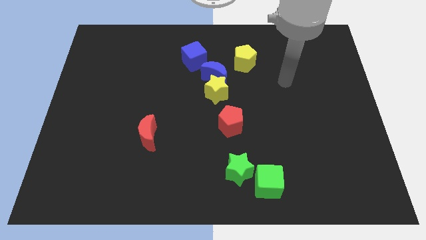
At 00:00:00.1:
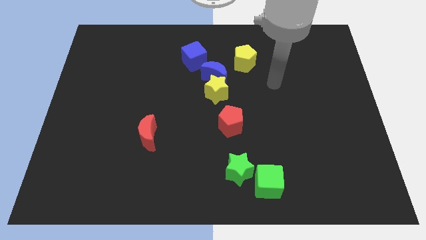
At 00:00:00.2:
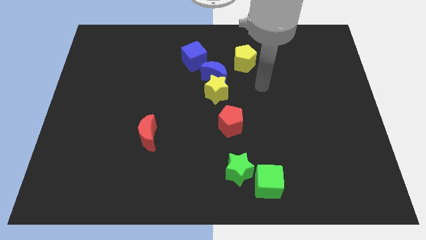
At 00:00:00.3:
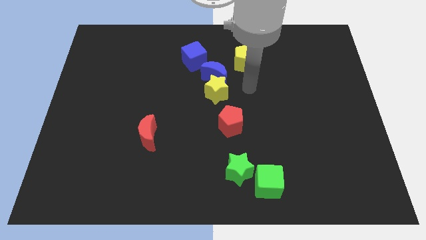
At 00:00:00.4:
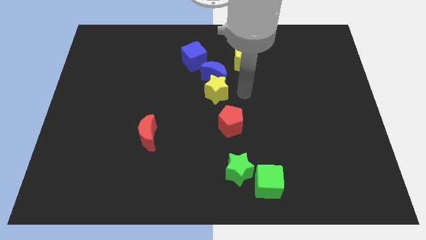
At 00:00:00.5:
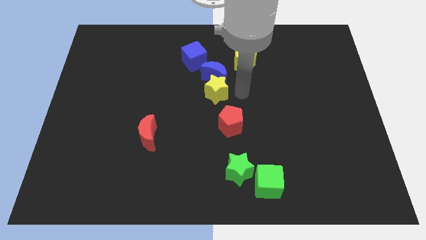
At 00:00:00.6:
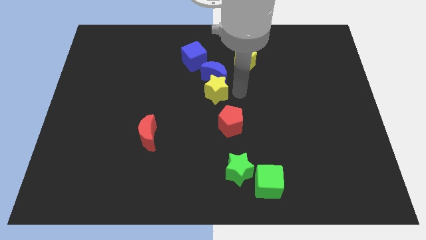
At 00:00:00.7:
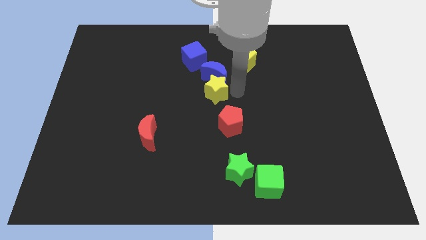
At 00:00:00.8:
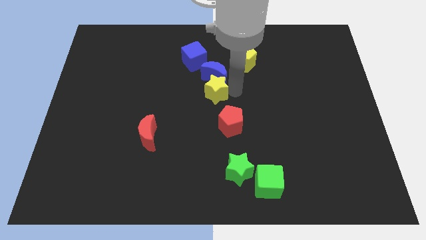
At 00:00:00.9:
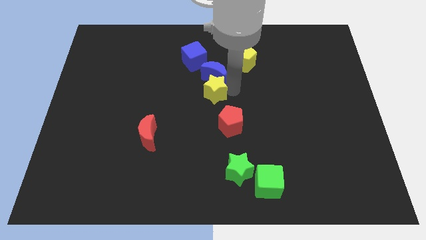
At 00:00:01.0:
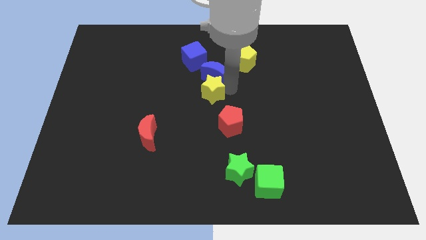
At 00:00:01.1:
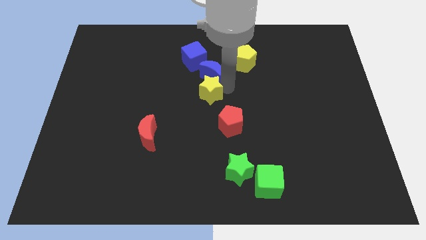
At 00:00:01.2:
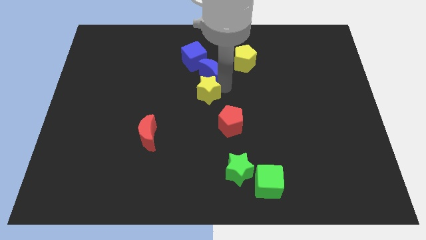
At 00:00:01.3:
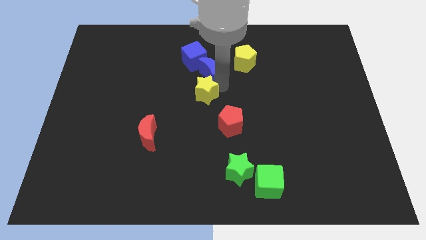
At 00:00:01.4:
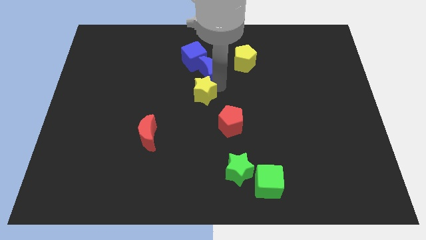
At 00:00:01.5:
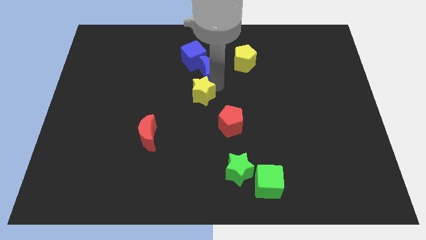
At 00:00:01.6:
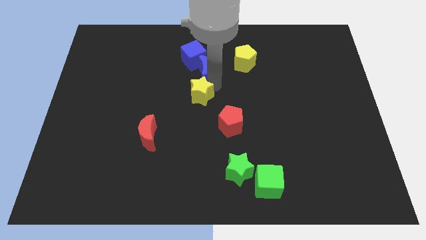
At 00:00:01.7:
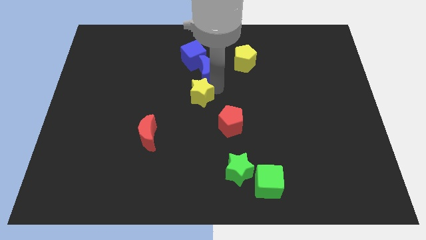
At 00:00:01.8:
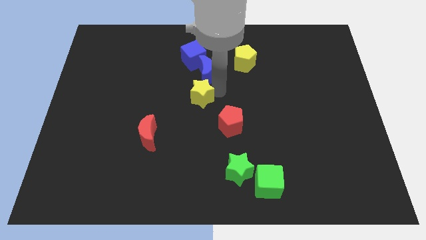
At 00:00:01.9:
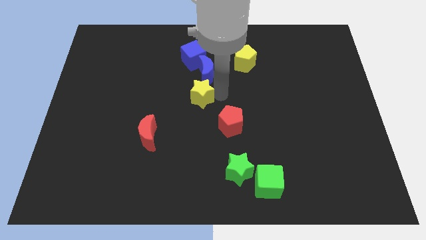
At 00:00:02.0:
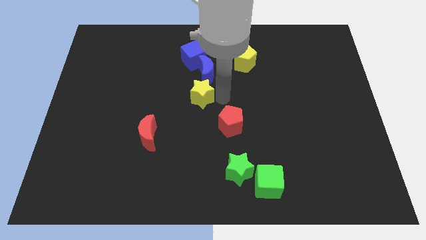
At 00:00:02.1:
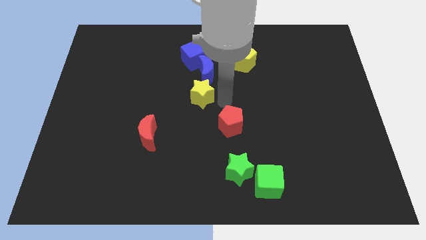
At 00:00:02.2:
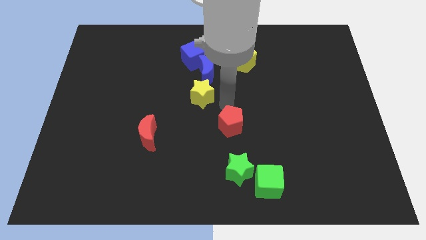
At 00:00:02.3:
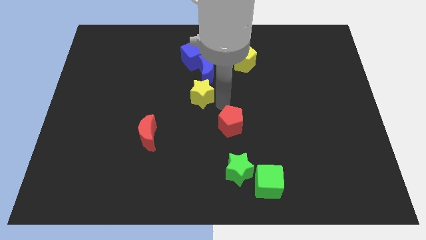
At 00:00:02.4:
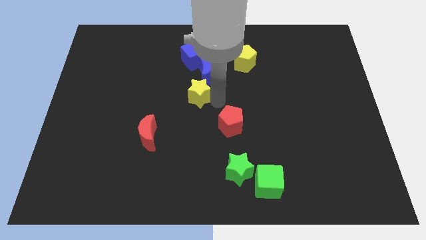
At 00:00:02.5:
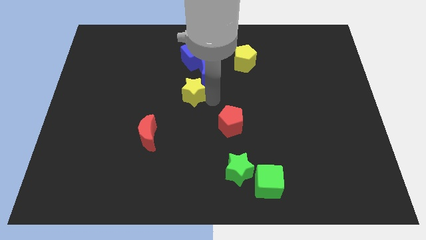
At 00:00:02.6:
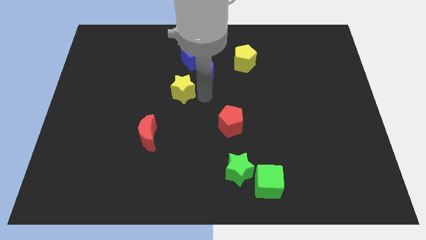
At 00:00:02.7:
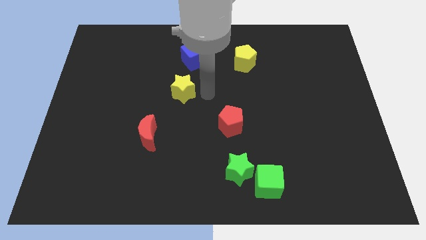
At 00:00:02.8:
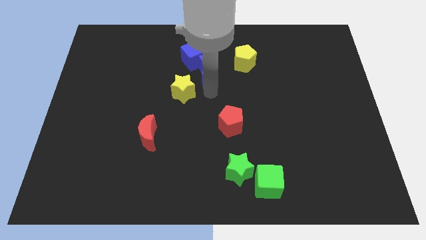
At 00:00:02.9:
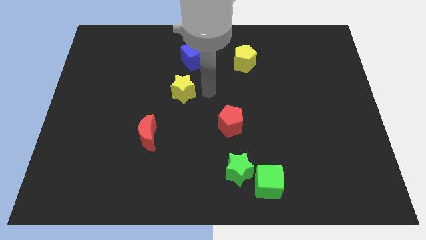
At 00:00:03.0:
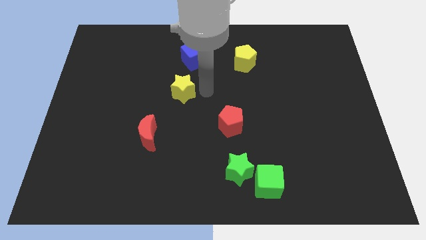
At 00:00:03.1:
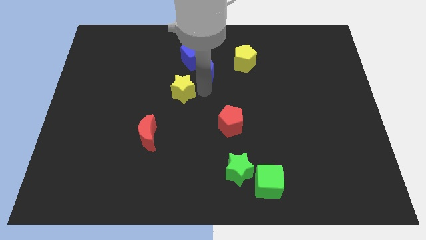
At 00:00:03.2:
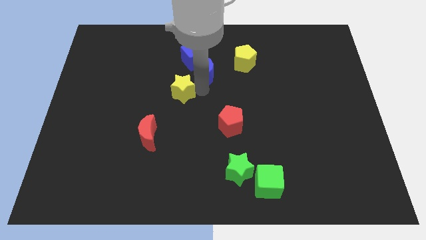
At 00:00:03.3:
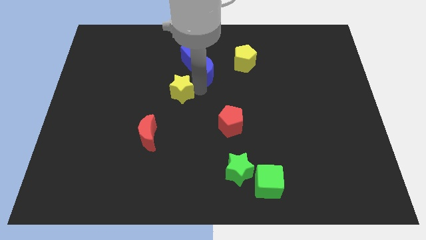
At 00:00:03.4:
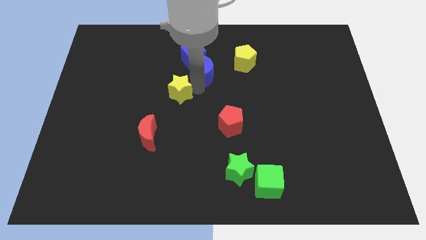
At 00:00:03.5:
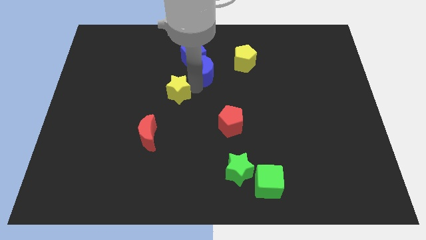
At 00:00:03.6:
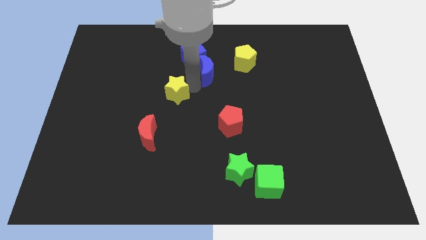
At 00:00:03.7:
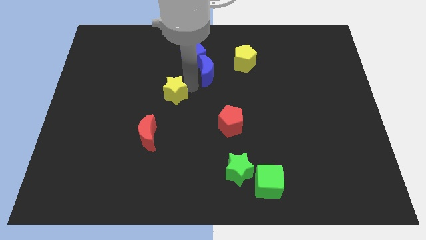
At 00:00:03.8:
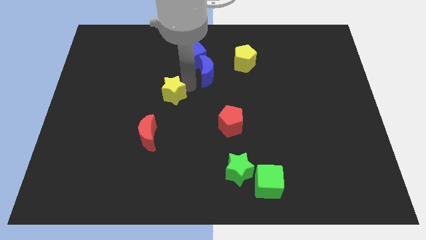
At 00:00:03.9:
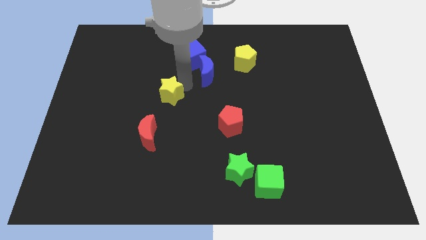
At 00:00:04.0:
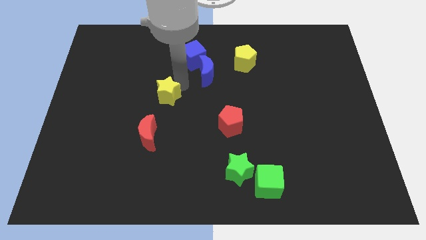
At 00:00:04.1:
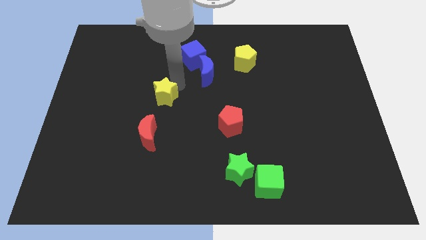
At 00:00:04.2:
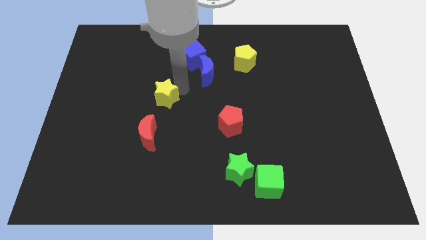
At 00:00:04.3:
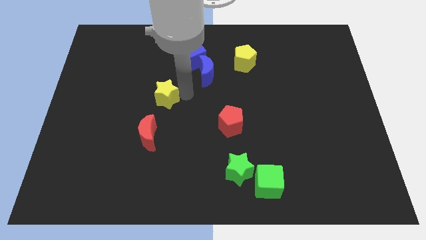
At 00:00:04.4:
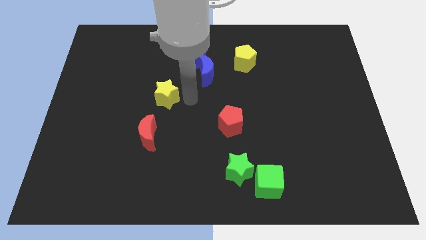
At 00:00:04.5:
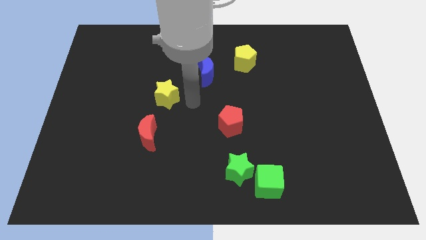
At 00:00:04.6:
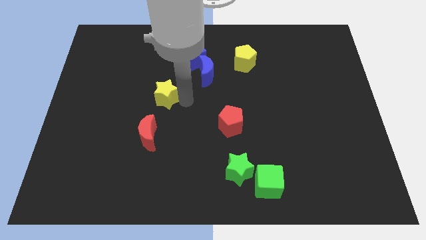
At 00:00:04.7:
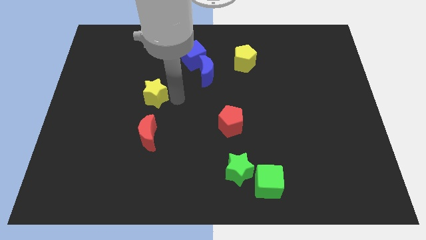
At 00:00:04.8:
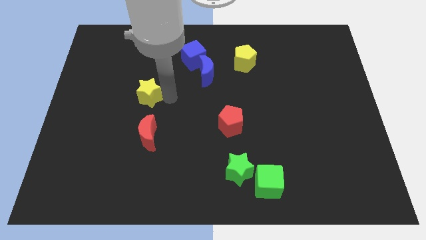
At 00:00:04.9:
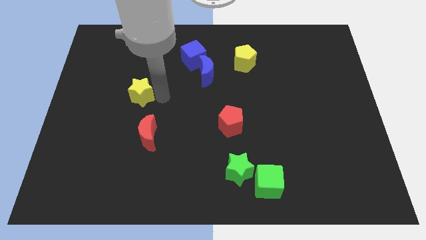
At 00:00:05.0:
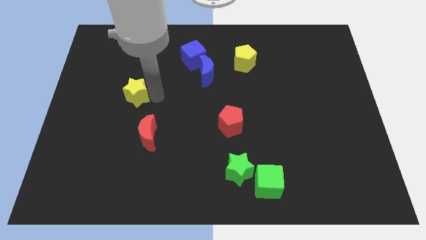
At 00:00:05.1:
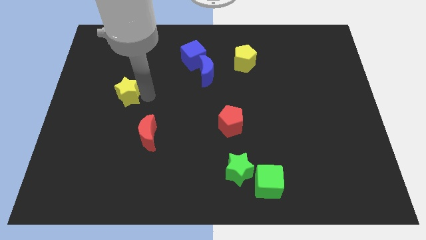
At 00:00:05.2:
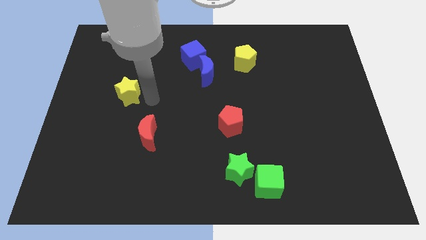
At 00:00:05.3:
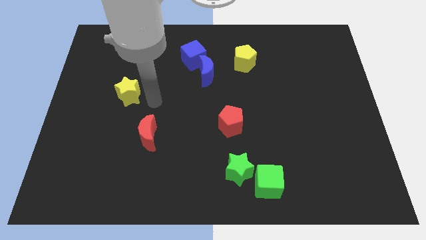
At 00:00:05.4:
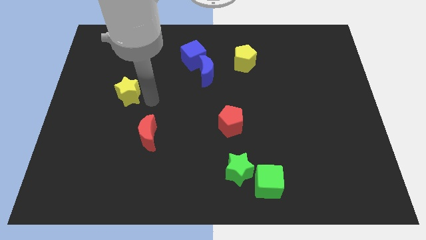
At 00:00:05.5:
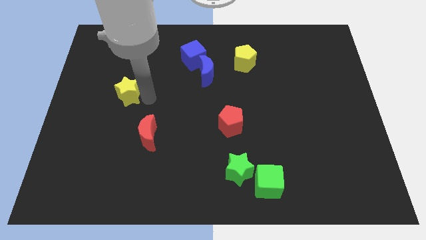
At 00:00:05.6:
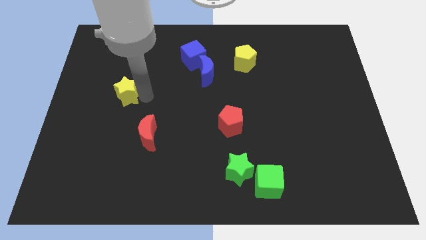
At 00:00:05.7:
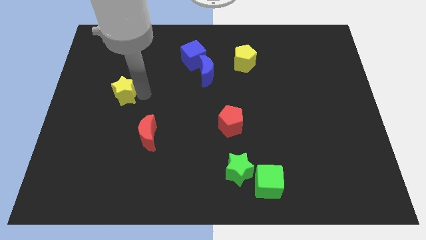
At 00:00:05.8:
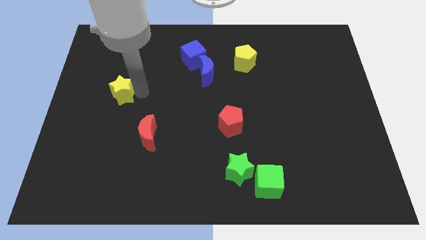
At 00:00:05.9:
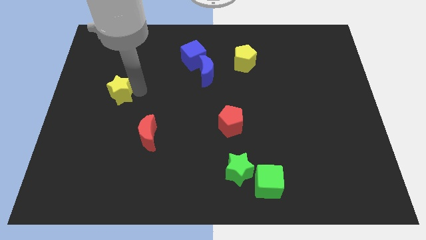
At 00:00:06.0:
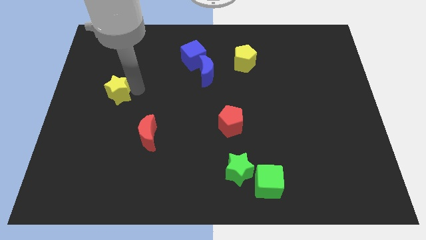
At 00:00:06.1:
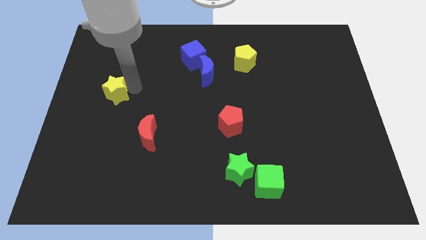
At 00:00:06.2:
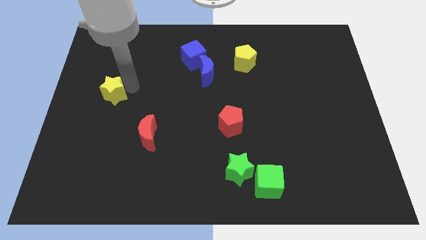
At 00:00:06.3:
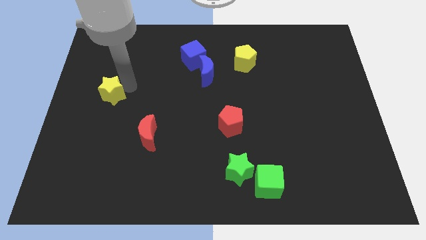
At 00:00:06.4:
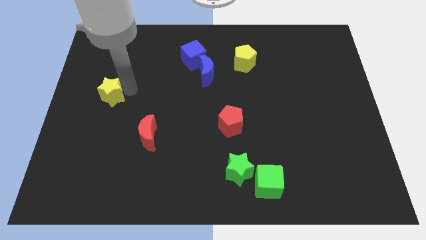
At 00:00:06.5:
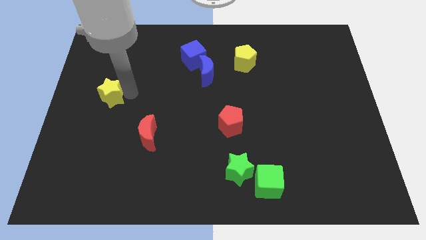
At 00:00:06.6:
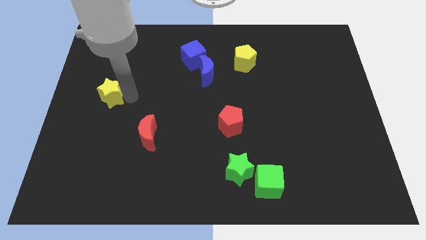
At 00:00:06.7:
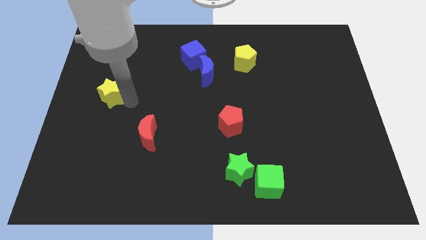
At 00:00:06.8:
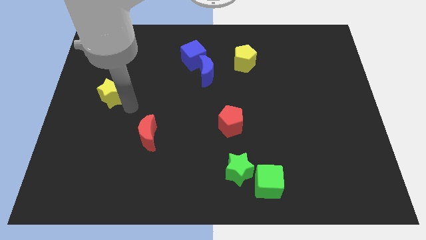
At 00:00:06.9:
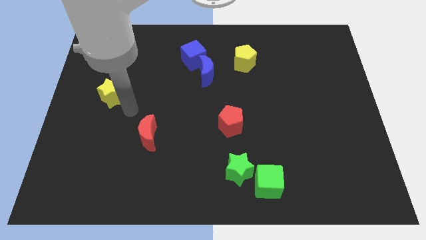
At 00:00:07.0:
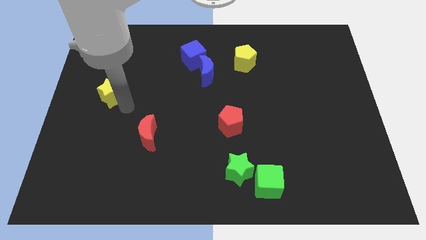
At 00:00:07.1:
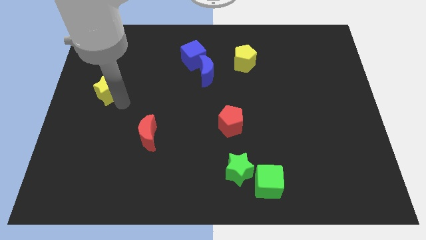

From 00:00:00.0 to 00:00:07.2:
put the yellow star to the left side of the board
